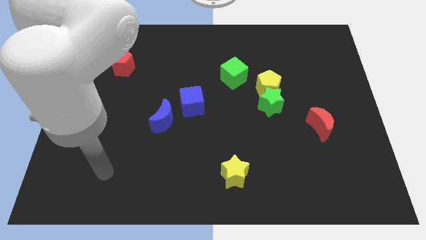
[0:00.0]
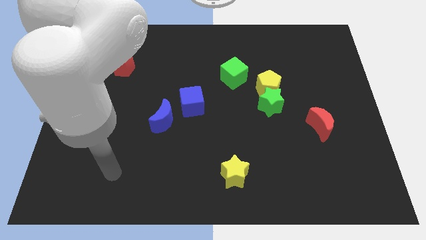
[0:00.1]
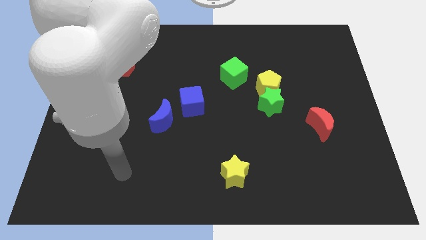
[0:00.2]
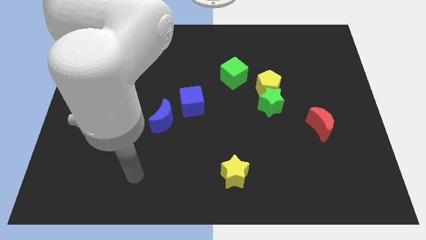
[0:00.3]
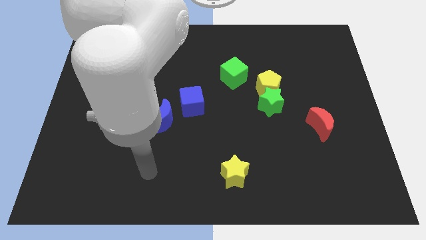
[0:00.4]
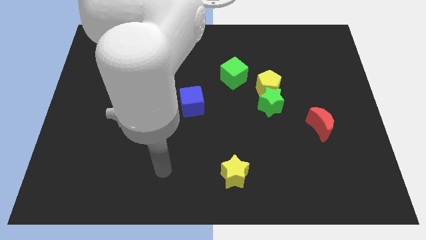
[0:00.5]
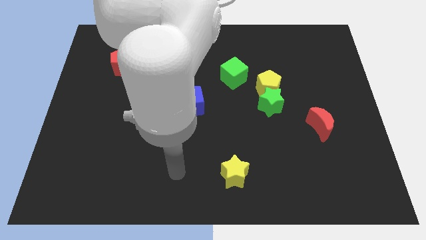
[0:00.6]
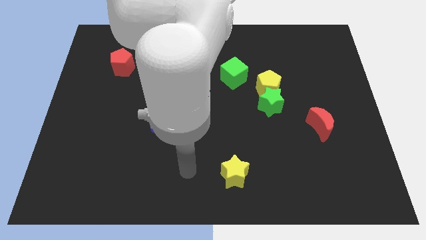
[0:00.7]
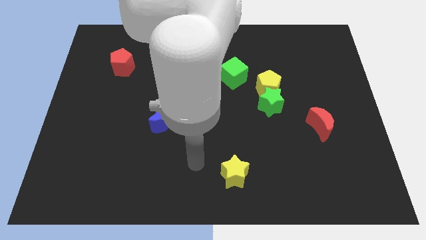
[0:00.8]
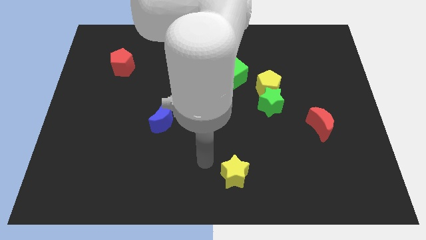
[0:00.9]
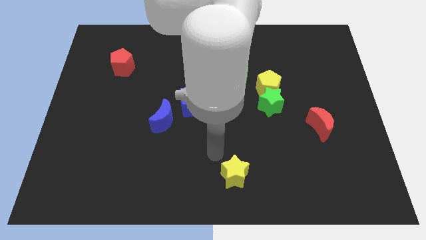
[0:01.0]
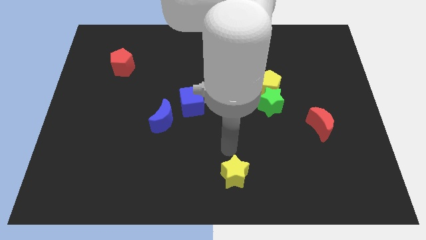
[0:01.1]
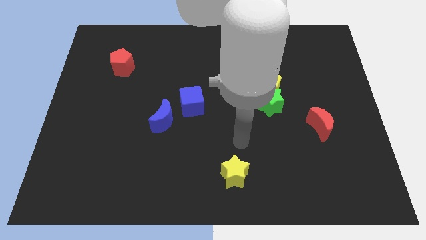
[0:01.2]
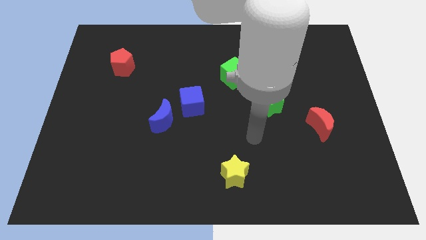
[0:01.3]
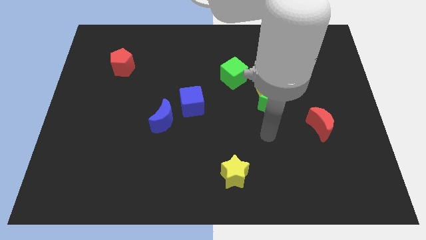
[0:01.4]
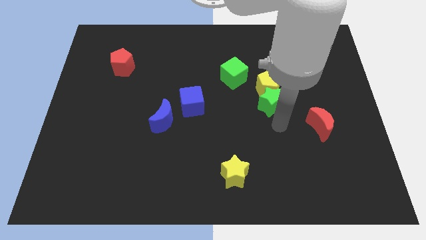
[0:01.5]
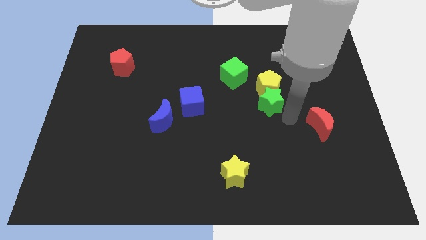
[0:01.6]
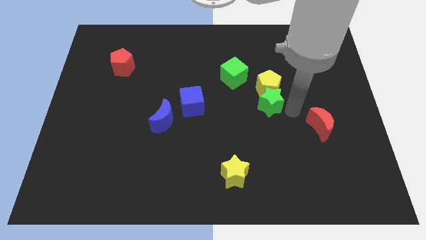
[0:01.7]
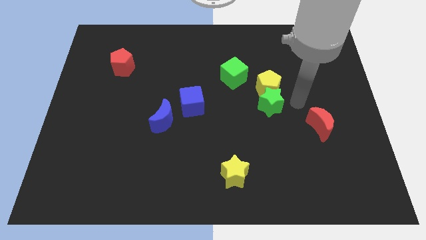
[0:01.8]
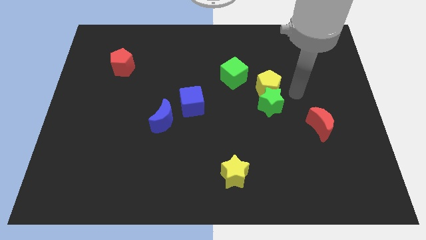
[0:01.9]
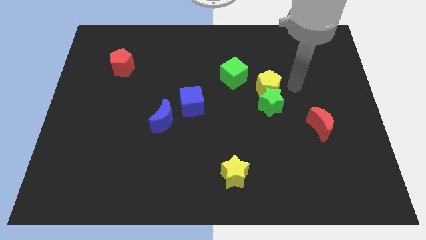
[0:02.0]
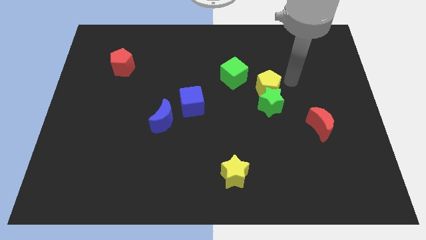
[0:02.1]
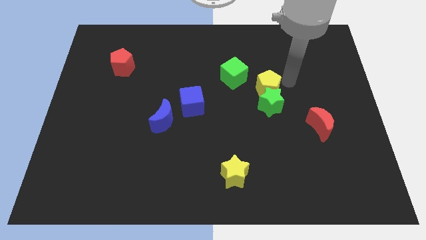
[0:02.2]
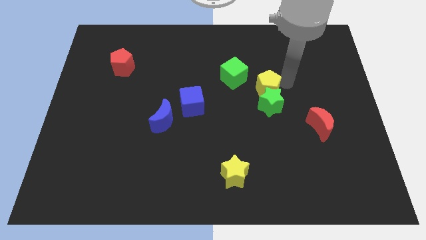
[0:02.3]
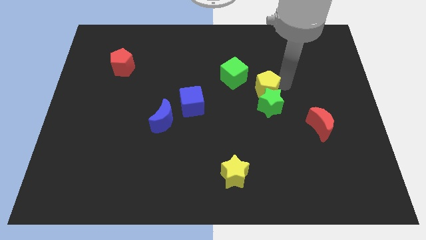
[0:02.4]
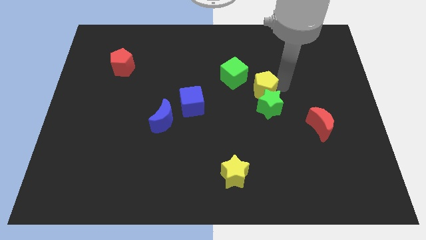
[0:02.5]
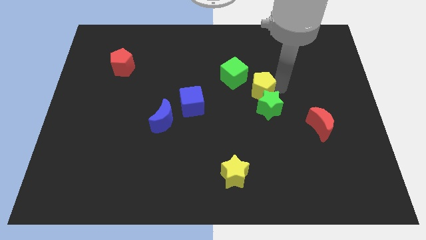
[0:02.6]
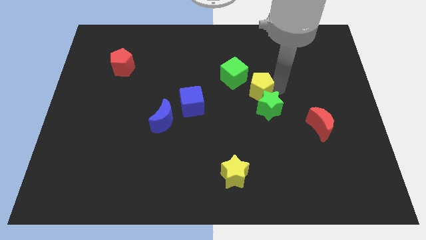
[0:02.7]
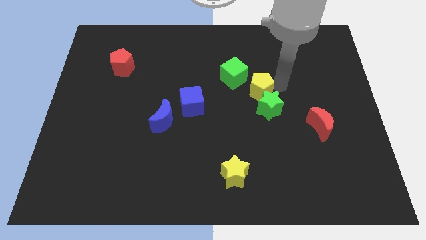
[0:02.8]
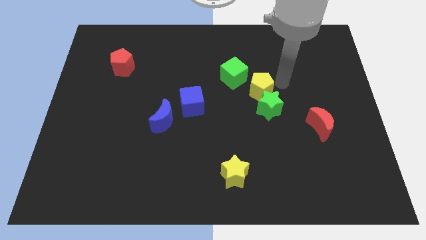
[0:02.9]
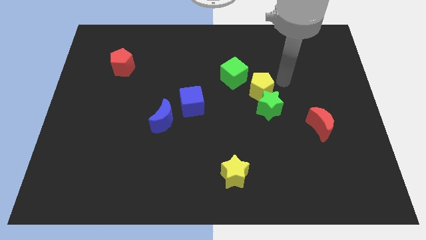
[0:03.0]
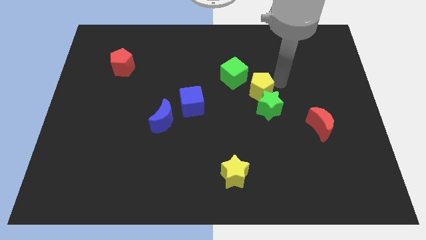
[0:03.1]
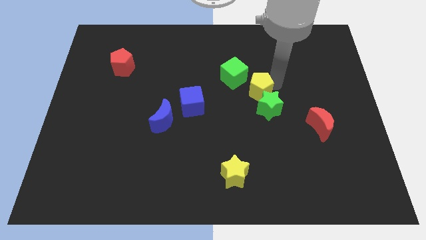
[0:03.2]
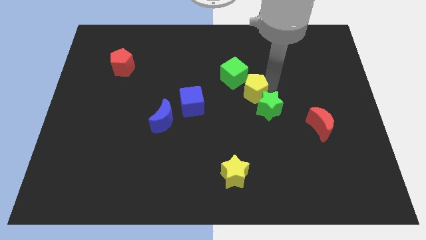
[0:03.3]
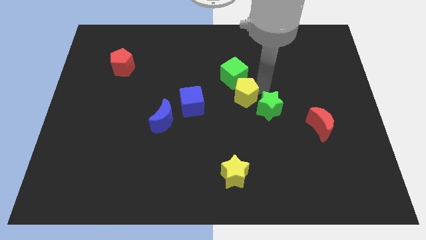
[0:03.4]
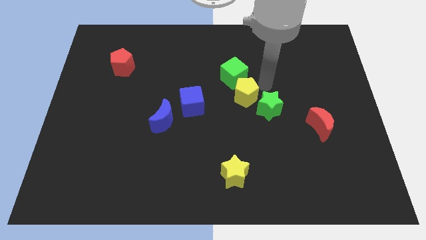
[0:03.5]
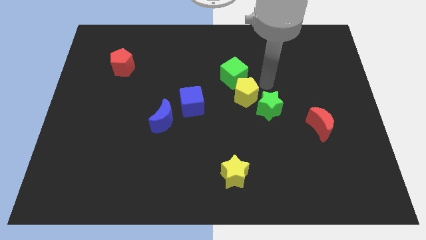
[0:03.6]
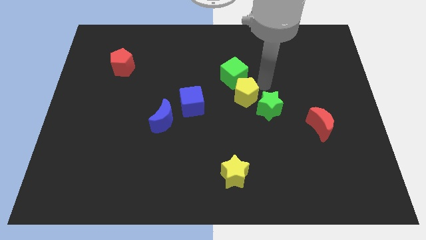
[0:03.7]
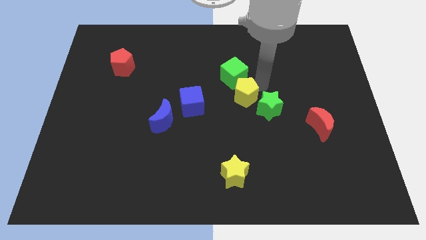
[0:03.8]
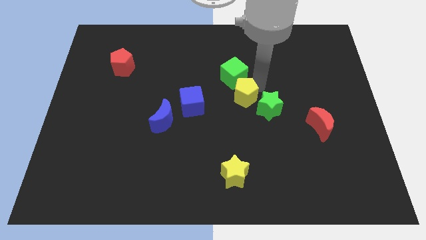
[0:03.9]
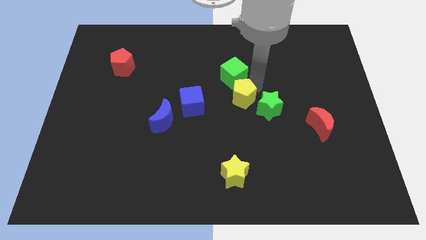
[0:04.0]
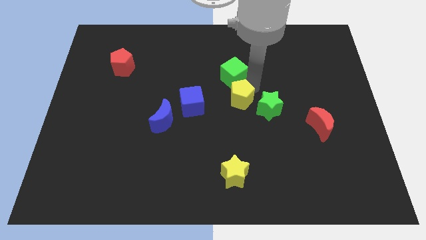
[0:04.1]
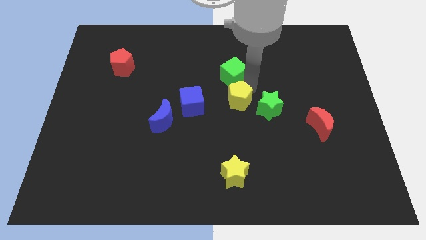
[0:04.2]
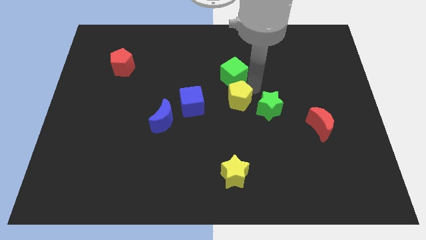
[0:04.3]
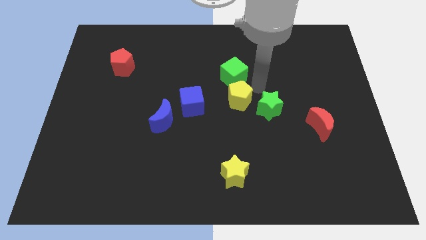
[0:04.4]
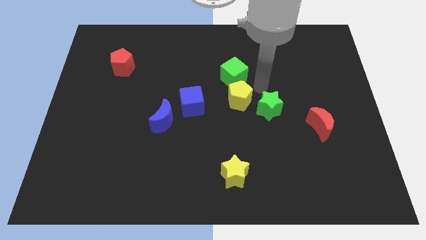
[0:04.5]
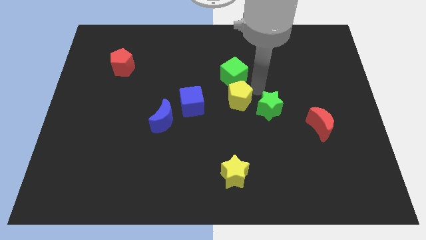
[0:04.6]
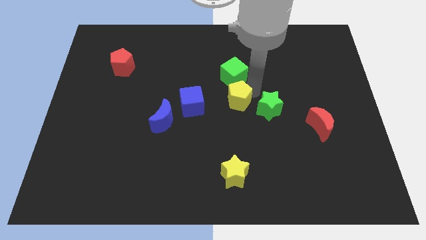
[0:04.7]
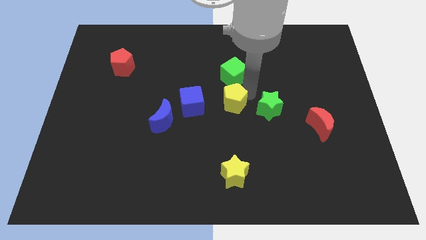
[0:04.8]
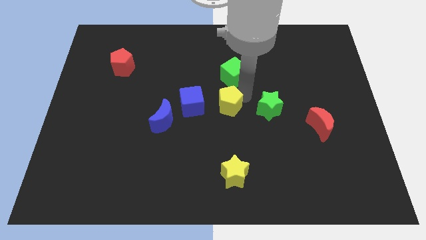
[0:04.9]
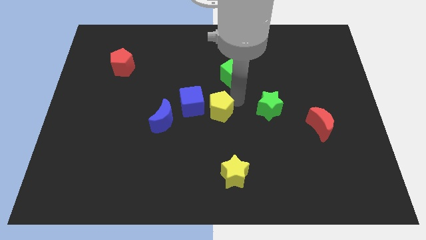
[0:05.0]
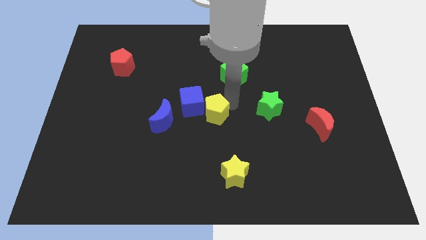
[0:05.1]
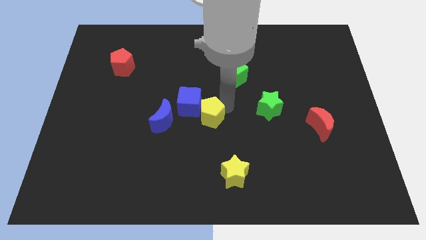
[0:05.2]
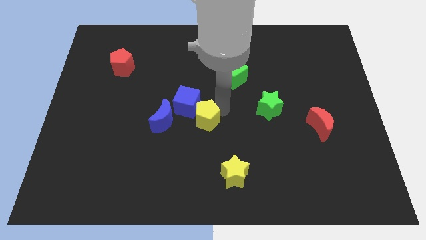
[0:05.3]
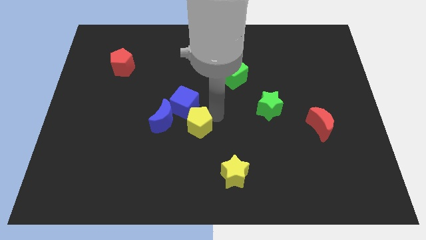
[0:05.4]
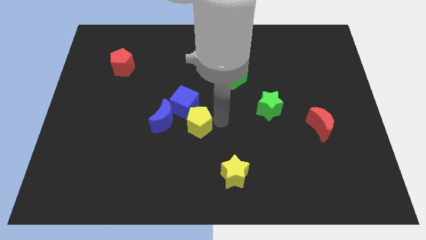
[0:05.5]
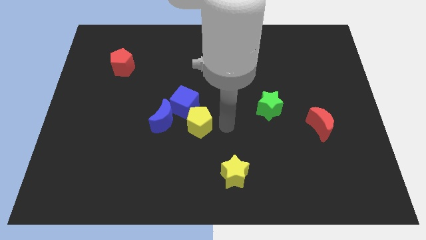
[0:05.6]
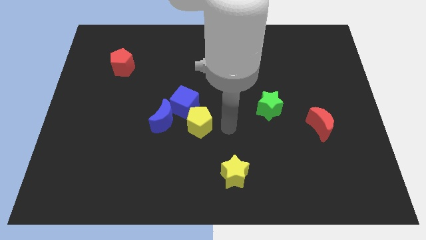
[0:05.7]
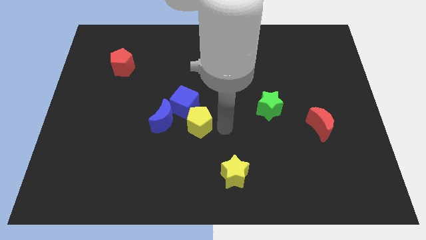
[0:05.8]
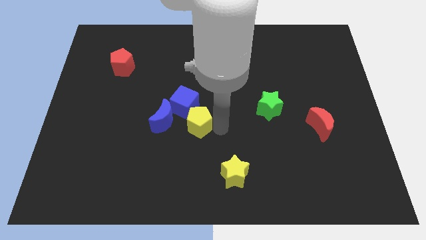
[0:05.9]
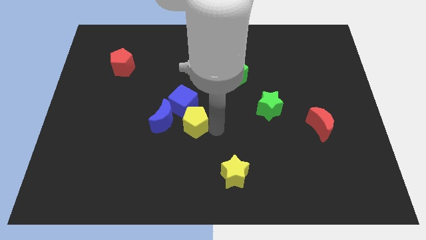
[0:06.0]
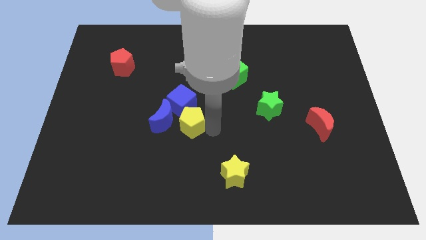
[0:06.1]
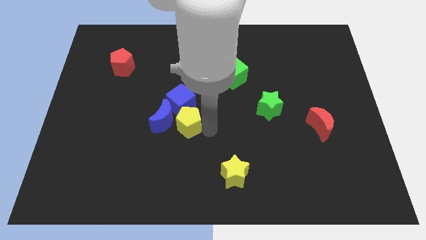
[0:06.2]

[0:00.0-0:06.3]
slide the yellow pentagon close to the blue moon

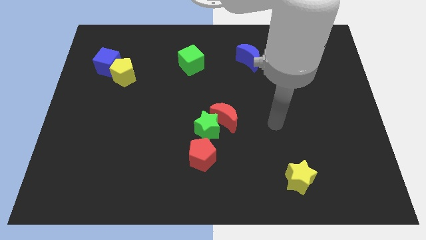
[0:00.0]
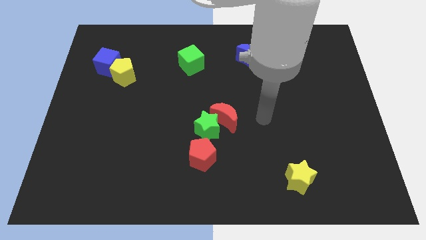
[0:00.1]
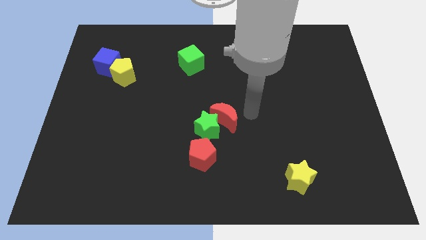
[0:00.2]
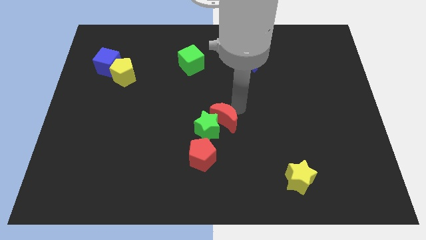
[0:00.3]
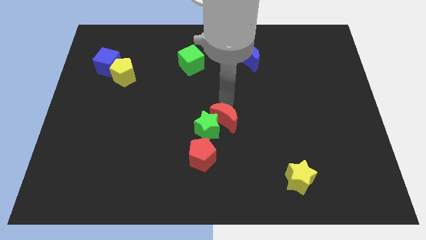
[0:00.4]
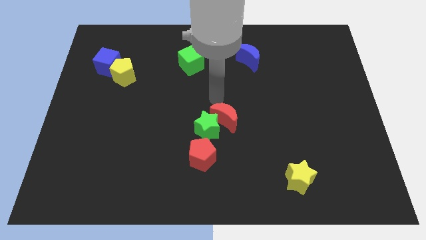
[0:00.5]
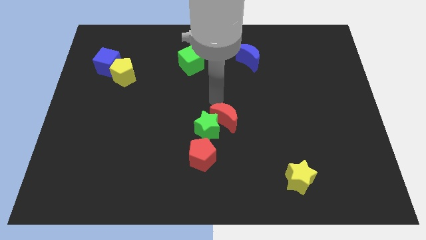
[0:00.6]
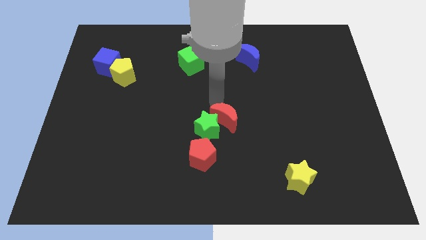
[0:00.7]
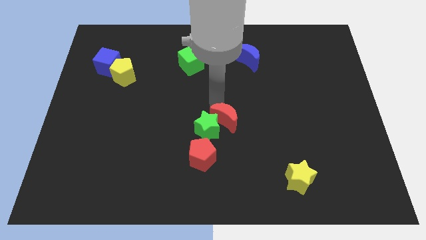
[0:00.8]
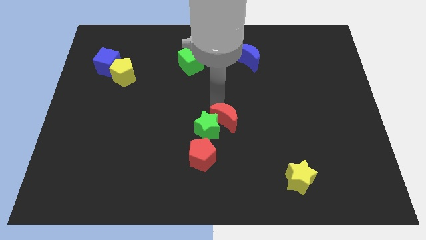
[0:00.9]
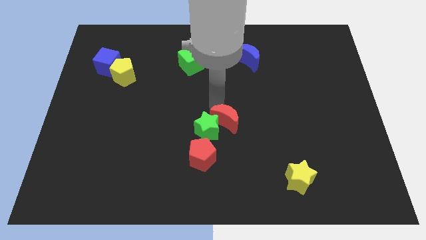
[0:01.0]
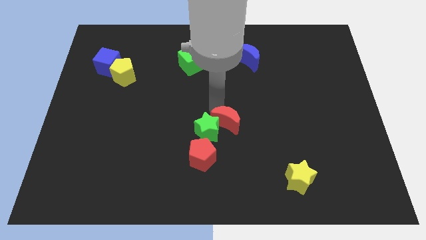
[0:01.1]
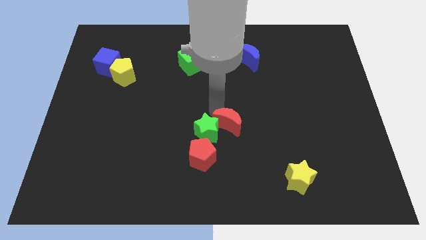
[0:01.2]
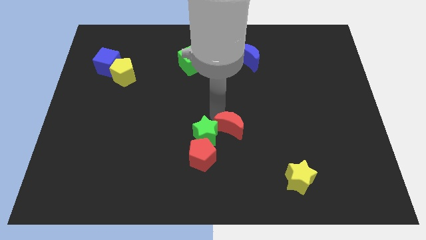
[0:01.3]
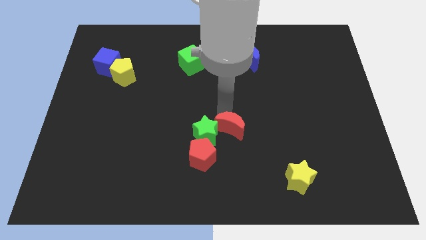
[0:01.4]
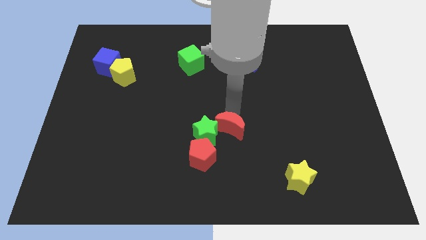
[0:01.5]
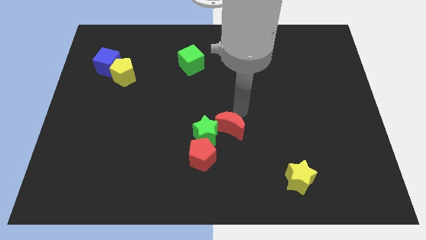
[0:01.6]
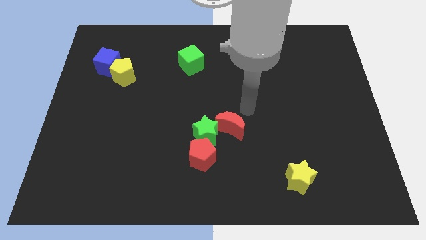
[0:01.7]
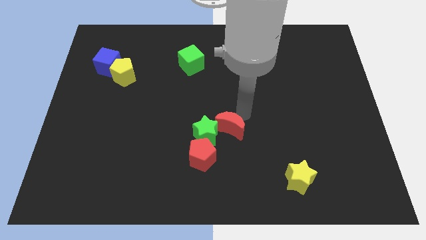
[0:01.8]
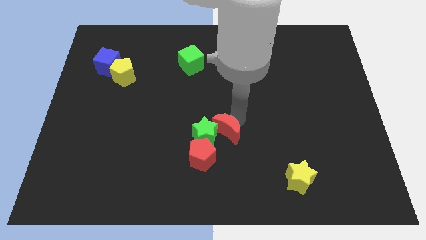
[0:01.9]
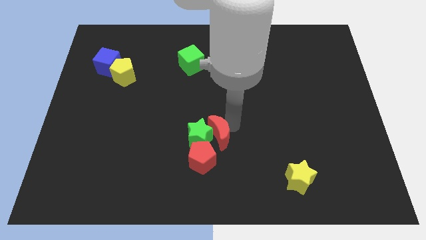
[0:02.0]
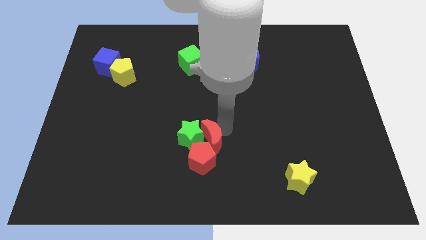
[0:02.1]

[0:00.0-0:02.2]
push the red moon close to the red pentagon
